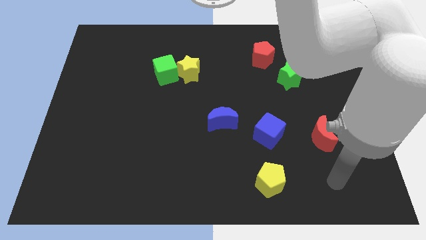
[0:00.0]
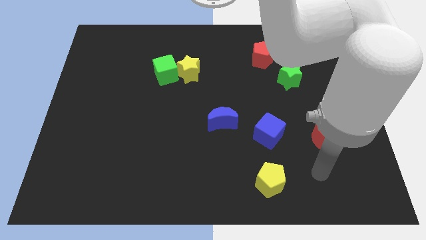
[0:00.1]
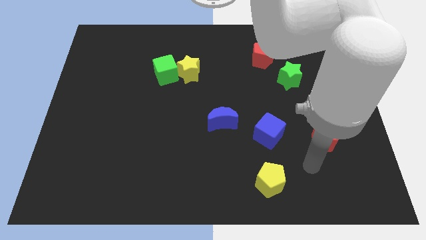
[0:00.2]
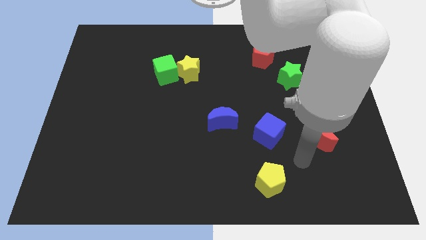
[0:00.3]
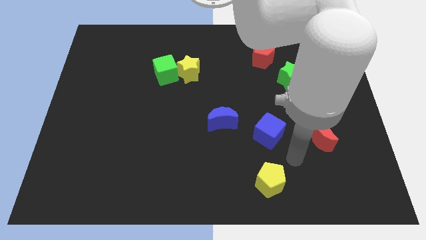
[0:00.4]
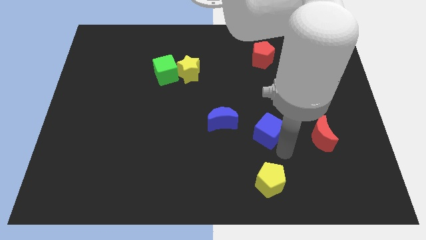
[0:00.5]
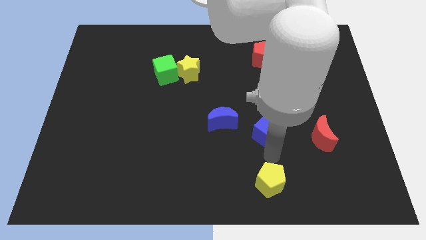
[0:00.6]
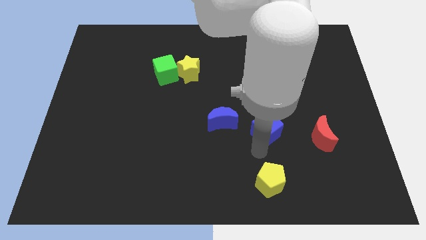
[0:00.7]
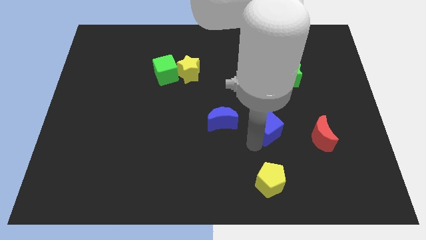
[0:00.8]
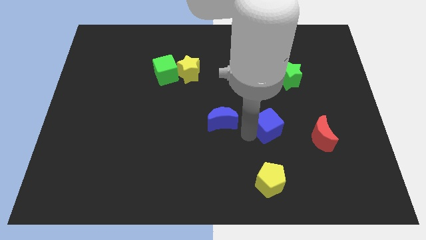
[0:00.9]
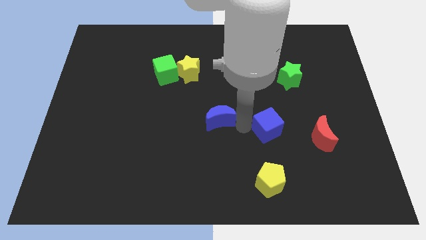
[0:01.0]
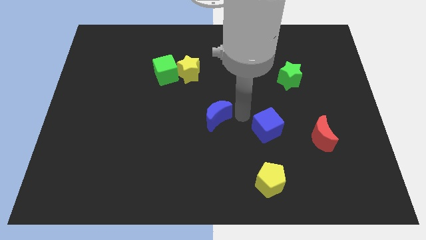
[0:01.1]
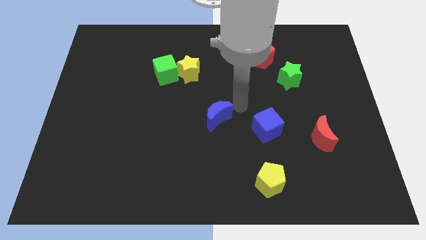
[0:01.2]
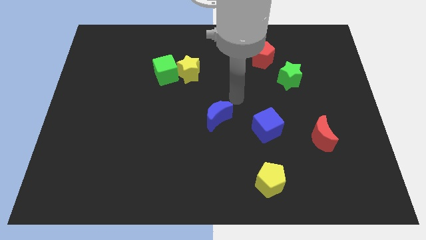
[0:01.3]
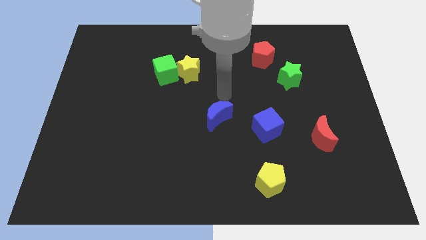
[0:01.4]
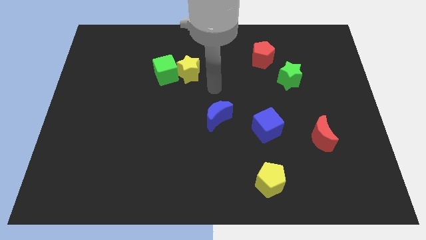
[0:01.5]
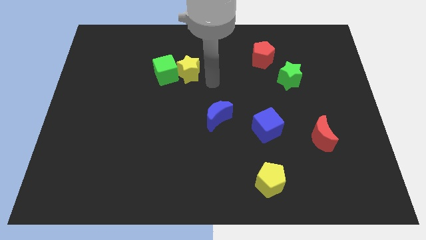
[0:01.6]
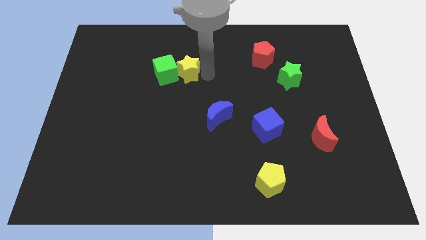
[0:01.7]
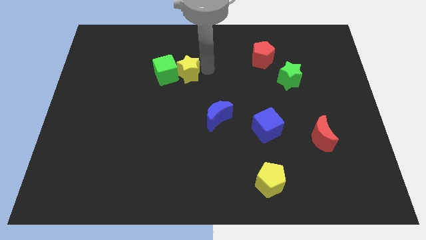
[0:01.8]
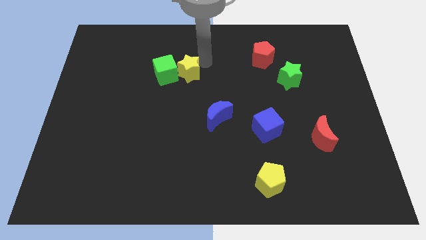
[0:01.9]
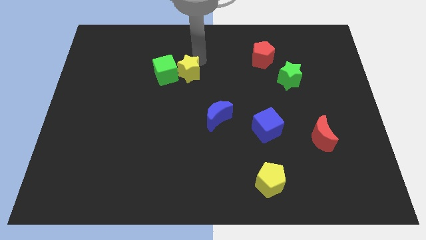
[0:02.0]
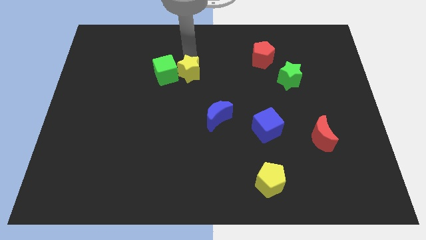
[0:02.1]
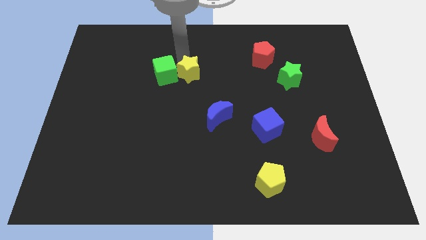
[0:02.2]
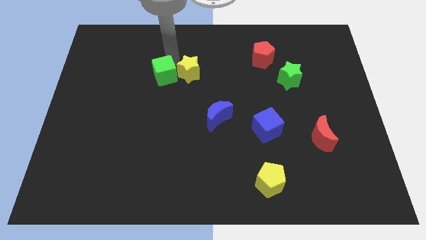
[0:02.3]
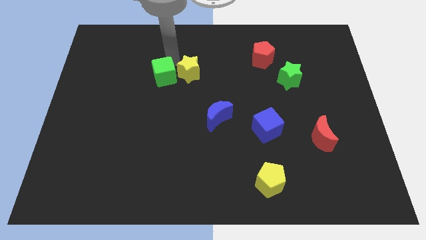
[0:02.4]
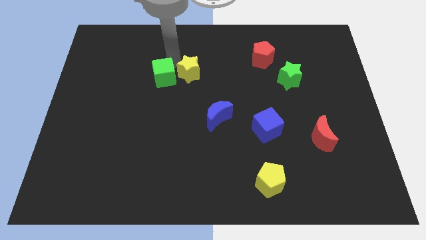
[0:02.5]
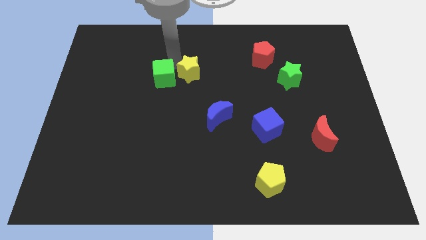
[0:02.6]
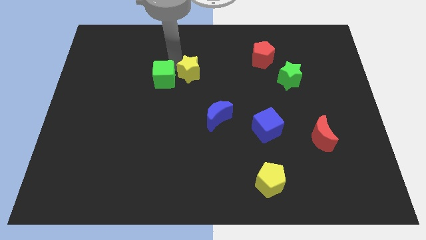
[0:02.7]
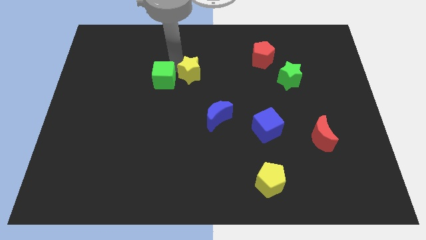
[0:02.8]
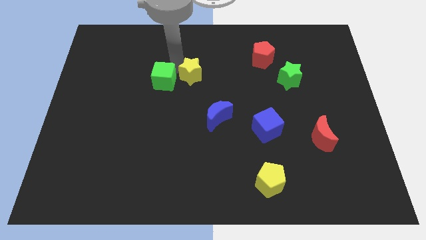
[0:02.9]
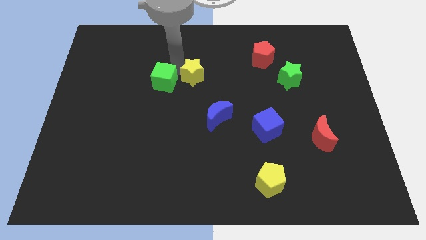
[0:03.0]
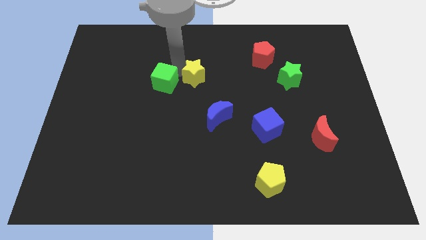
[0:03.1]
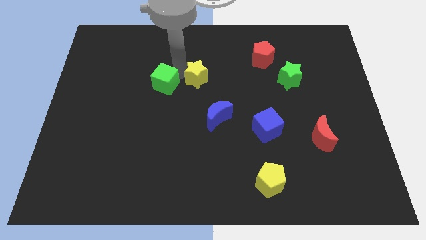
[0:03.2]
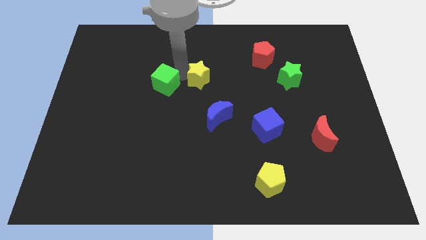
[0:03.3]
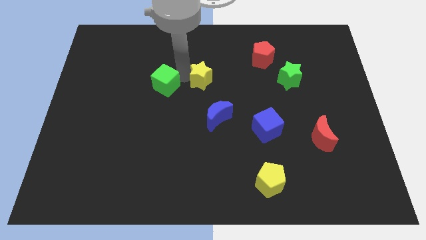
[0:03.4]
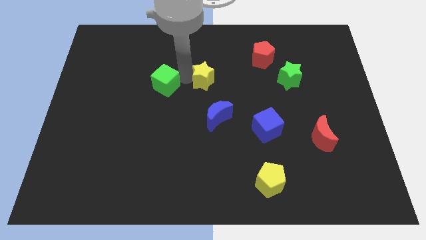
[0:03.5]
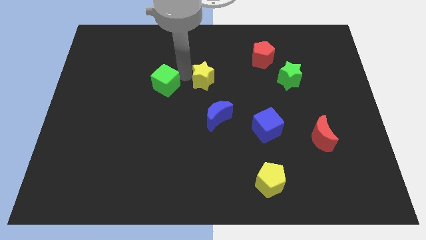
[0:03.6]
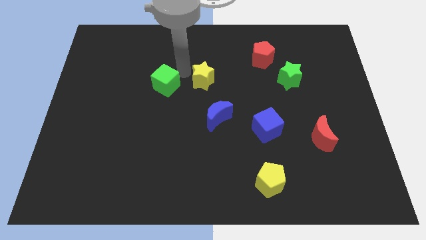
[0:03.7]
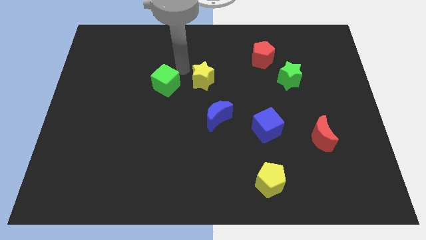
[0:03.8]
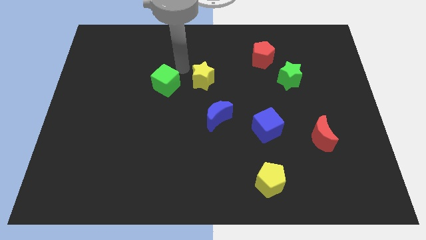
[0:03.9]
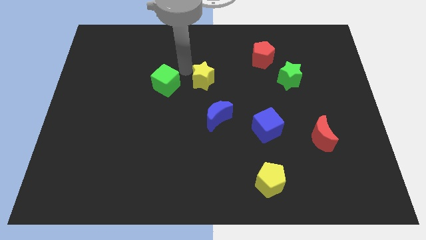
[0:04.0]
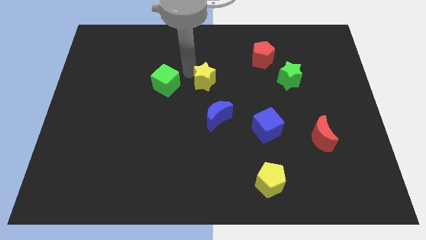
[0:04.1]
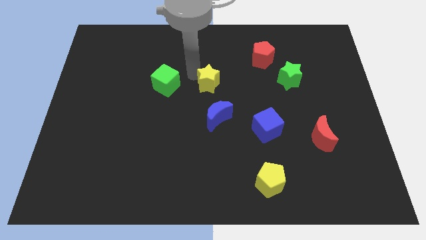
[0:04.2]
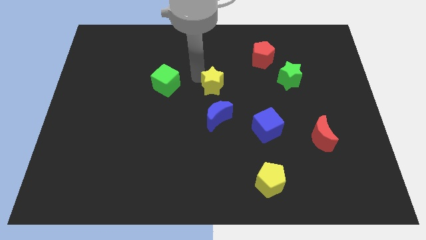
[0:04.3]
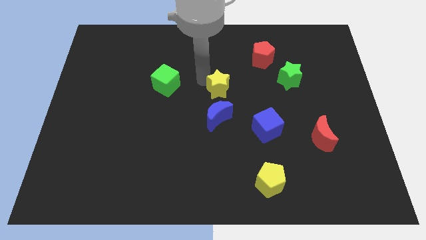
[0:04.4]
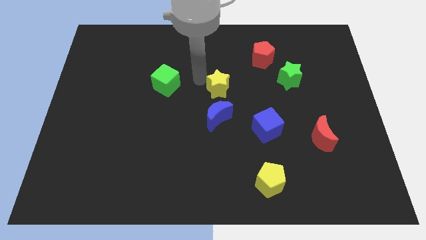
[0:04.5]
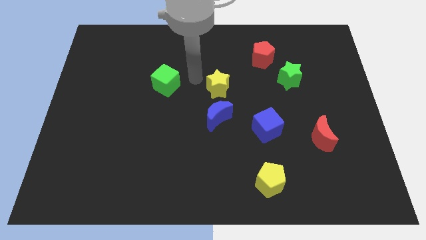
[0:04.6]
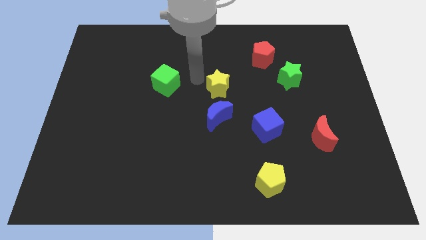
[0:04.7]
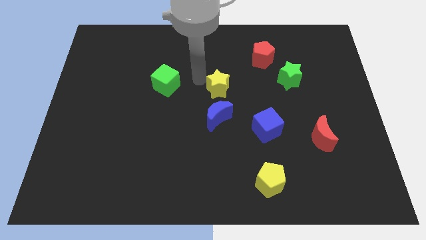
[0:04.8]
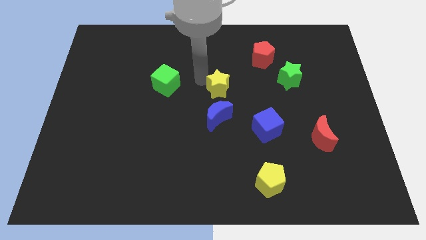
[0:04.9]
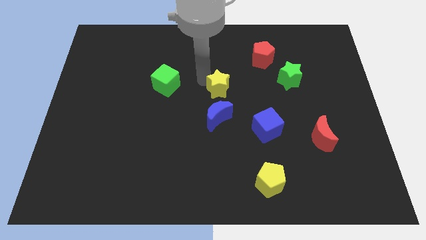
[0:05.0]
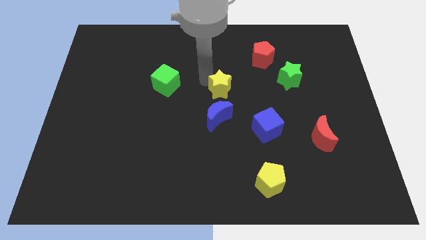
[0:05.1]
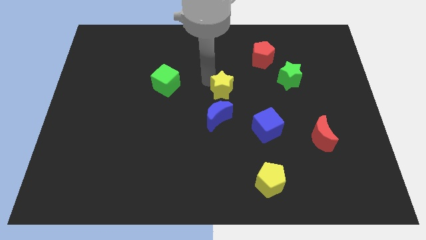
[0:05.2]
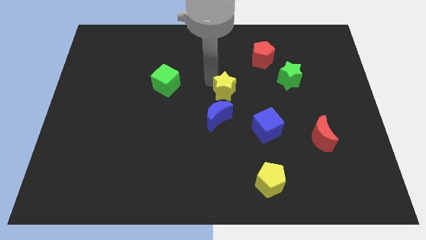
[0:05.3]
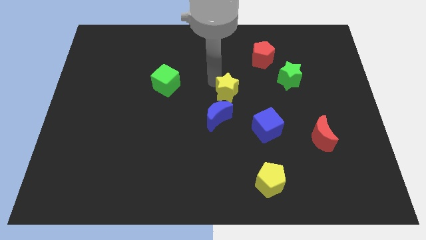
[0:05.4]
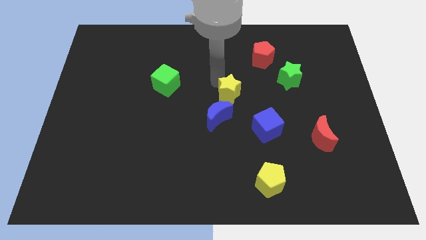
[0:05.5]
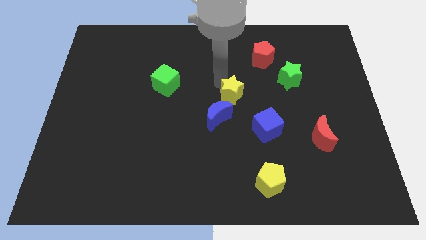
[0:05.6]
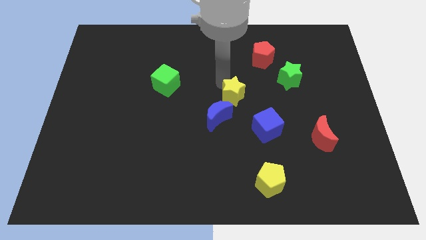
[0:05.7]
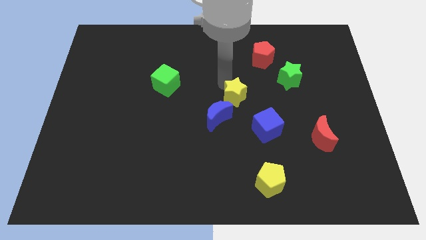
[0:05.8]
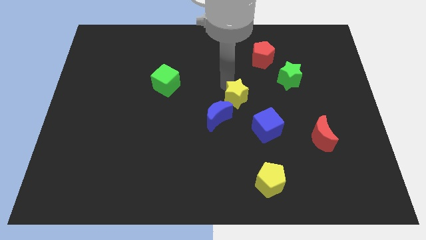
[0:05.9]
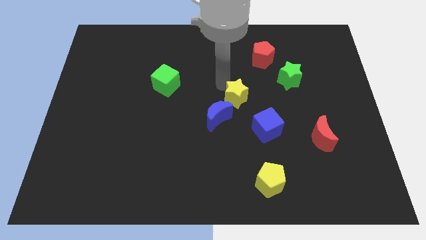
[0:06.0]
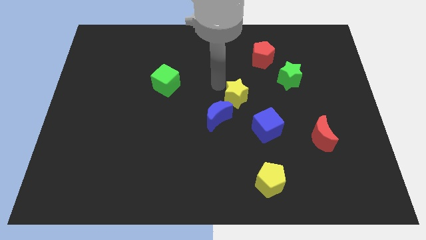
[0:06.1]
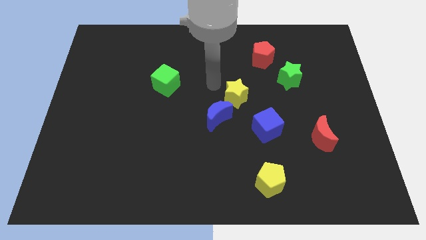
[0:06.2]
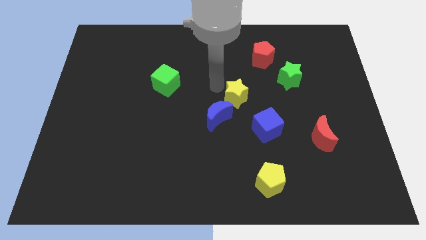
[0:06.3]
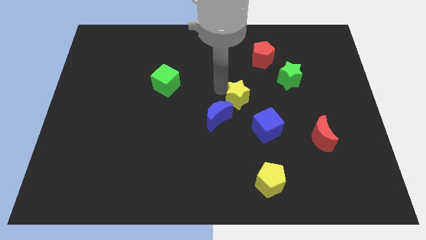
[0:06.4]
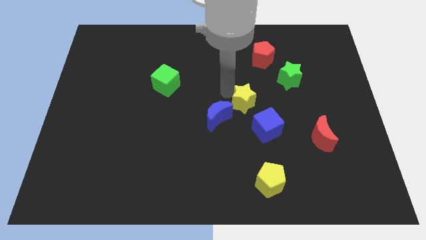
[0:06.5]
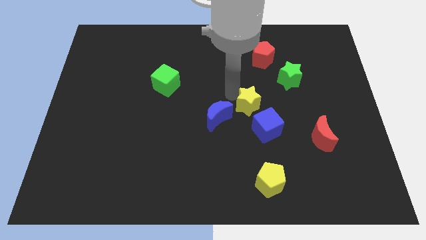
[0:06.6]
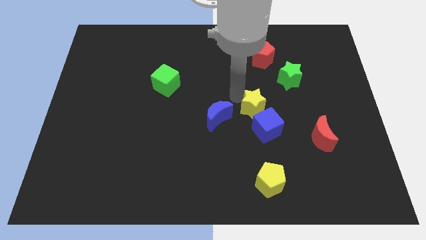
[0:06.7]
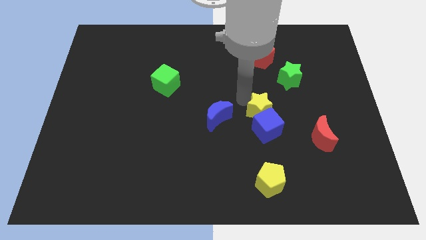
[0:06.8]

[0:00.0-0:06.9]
put the yellow star next to the blue cube
